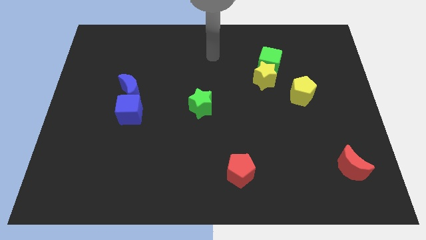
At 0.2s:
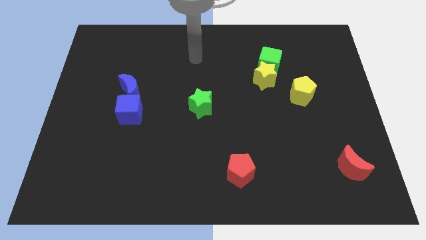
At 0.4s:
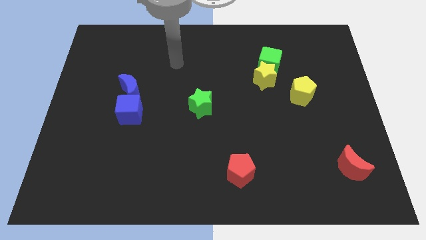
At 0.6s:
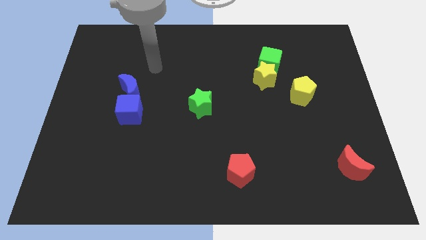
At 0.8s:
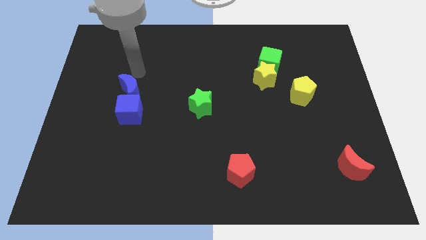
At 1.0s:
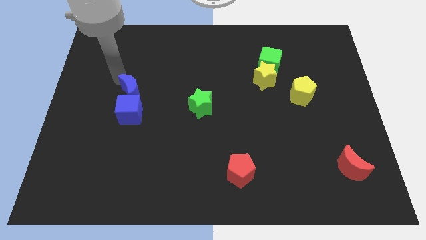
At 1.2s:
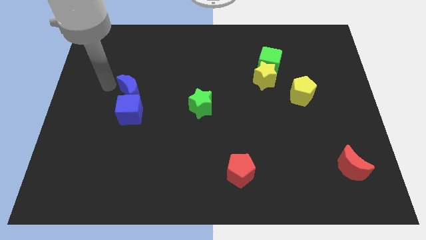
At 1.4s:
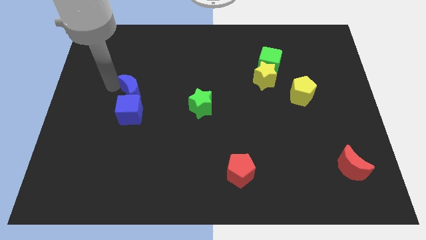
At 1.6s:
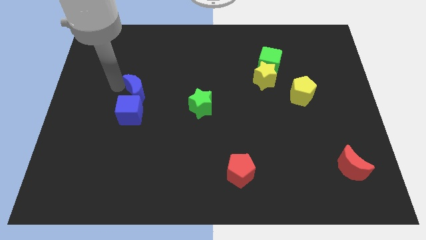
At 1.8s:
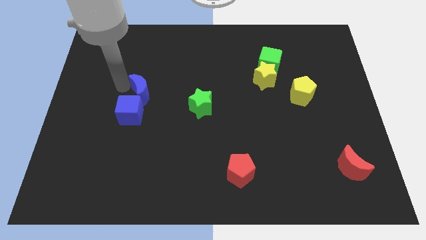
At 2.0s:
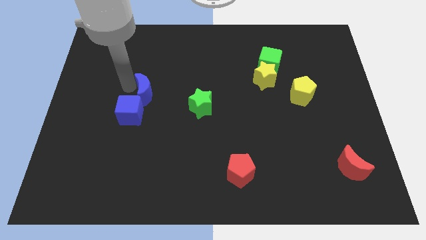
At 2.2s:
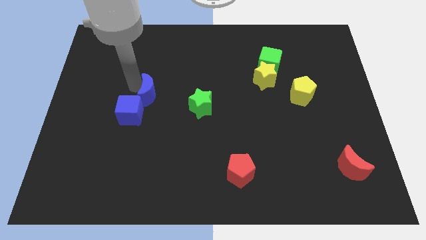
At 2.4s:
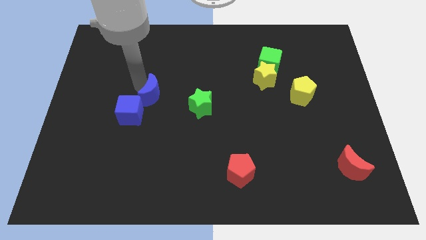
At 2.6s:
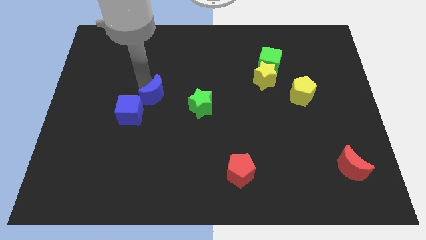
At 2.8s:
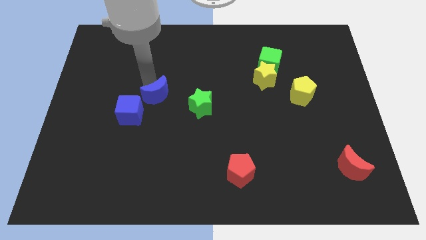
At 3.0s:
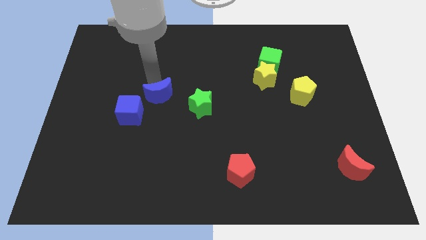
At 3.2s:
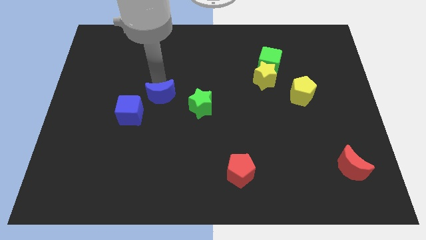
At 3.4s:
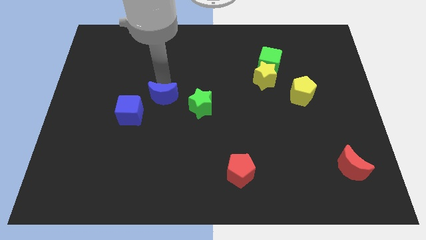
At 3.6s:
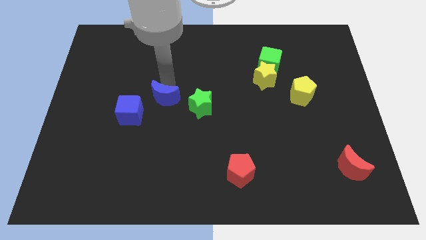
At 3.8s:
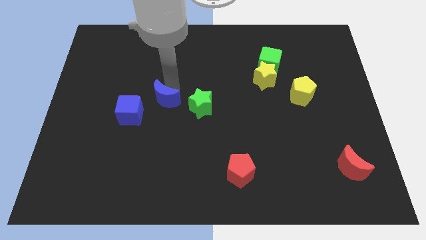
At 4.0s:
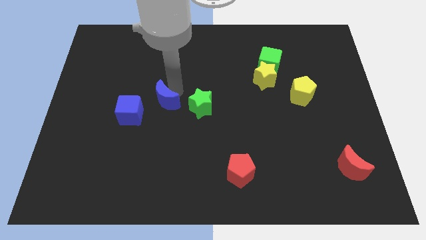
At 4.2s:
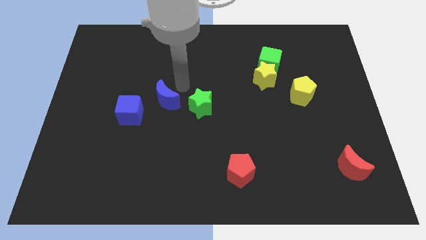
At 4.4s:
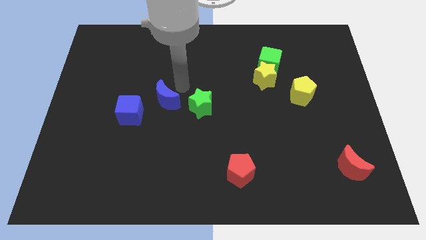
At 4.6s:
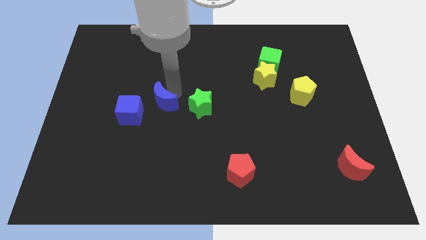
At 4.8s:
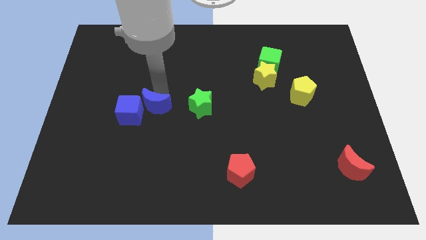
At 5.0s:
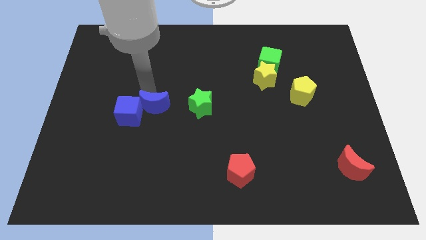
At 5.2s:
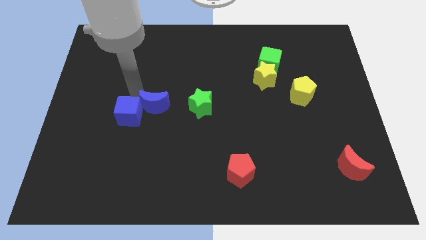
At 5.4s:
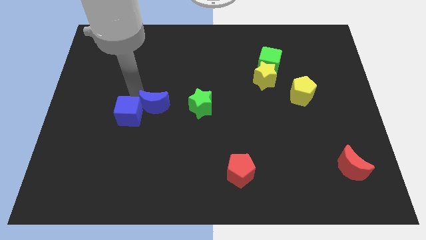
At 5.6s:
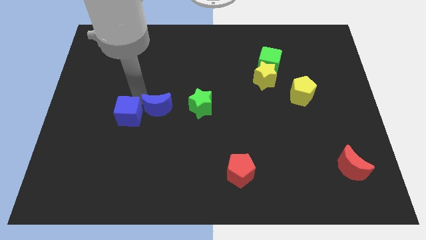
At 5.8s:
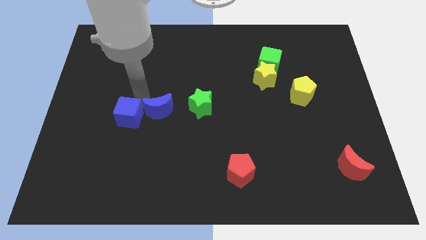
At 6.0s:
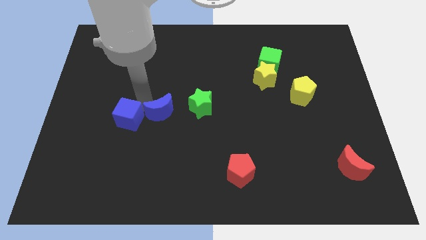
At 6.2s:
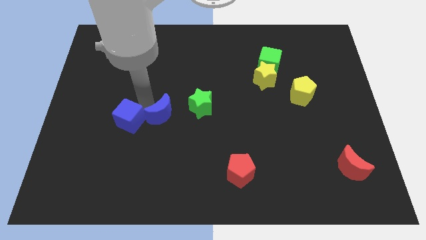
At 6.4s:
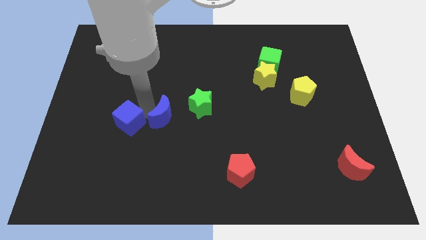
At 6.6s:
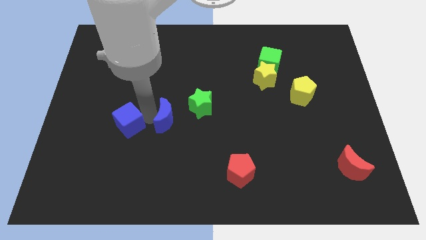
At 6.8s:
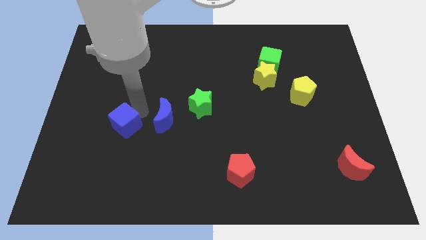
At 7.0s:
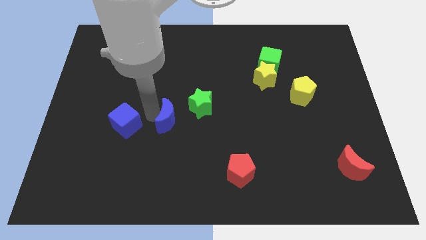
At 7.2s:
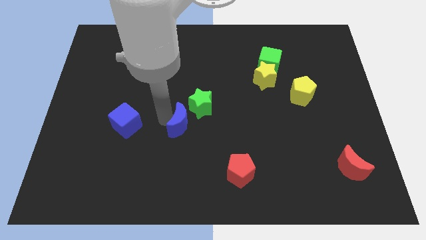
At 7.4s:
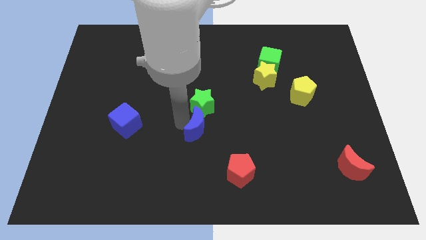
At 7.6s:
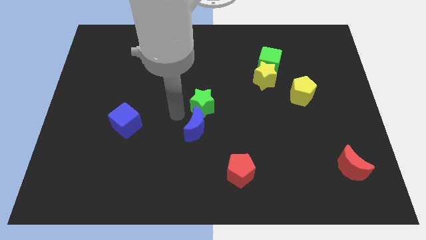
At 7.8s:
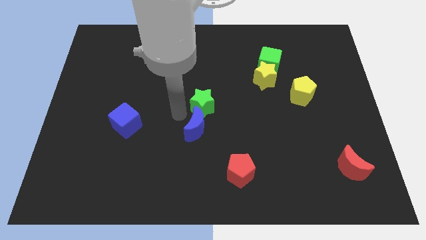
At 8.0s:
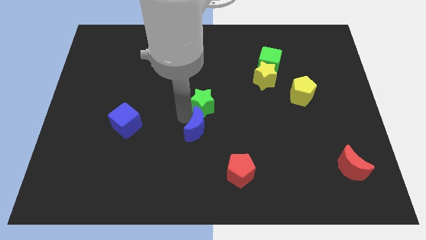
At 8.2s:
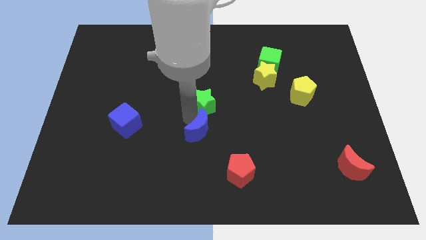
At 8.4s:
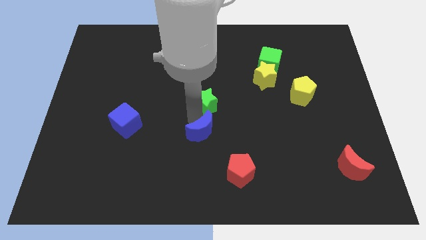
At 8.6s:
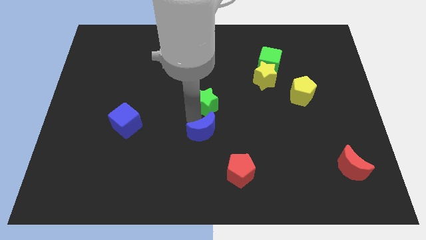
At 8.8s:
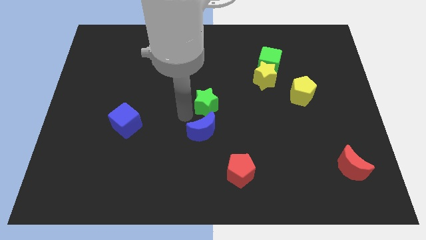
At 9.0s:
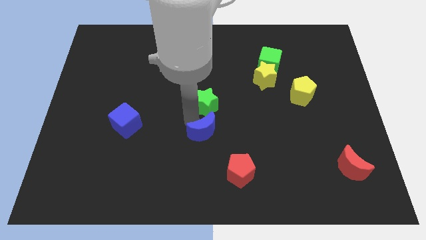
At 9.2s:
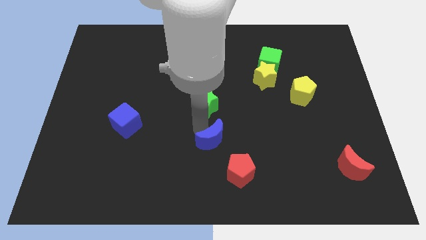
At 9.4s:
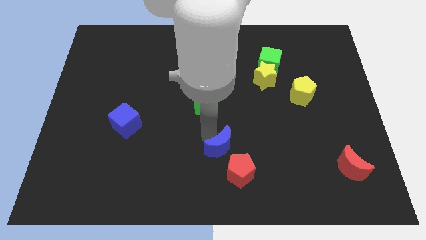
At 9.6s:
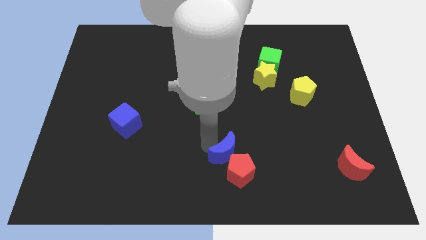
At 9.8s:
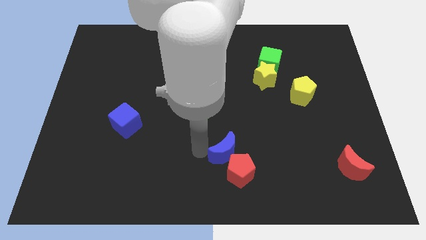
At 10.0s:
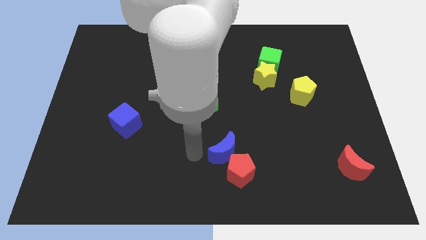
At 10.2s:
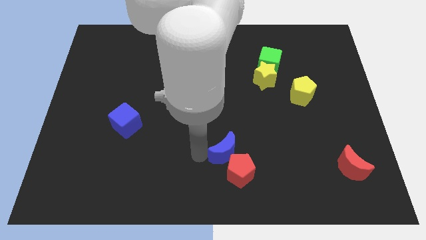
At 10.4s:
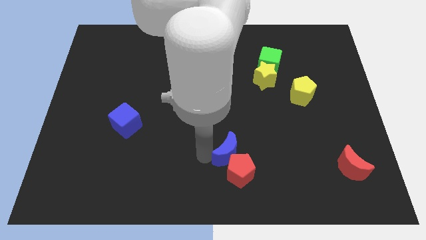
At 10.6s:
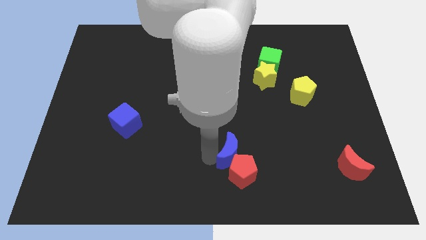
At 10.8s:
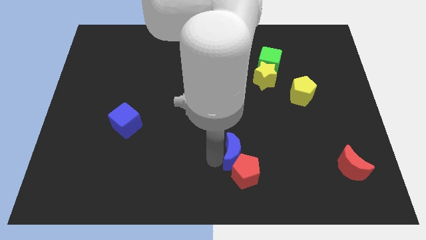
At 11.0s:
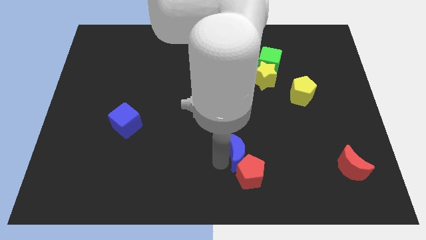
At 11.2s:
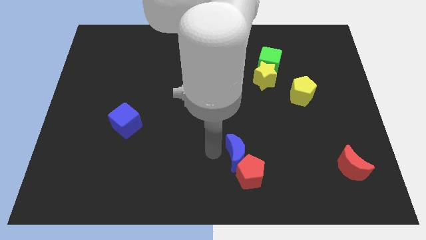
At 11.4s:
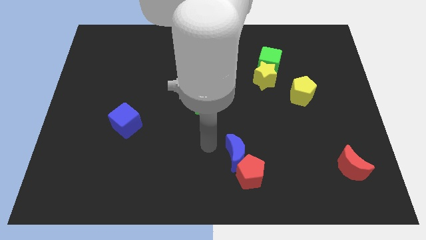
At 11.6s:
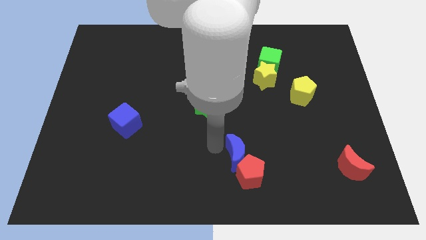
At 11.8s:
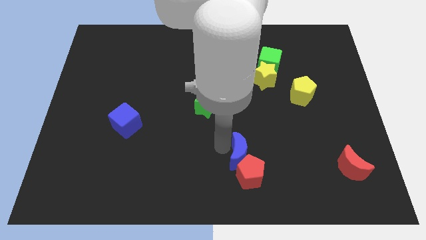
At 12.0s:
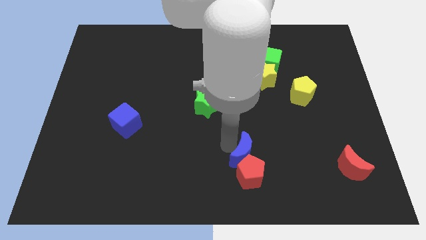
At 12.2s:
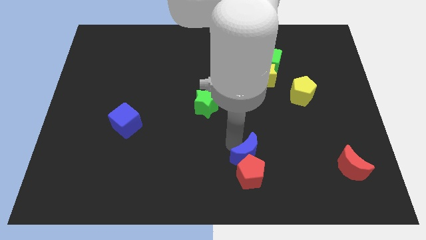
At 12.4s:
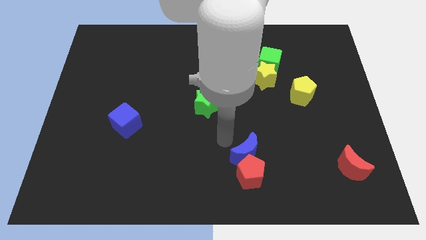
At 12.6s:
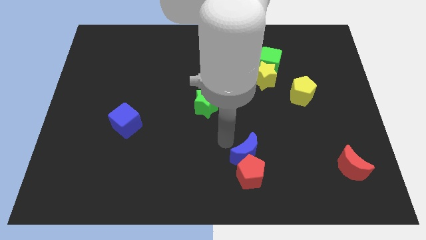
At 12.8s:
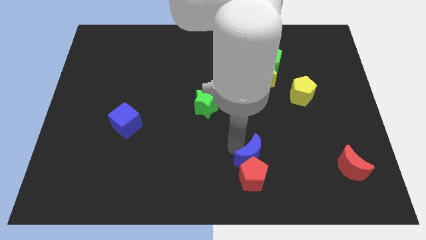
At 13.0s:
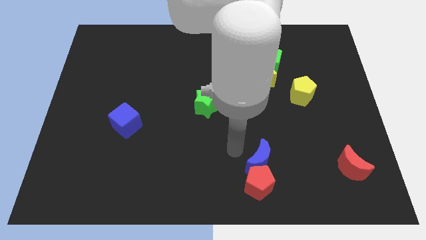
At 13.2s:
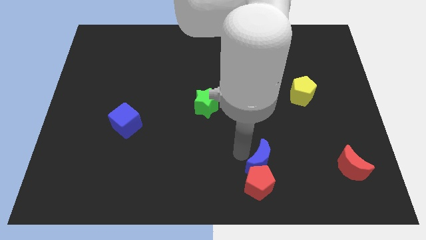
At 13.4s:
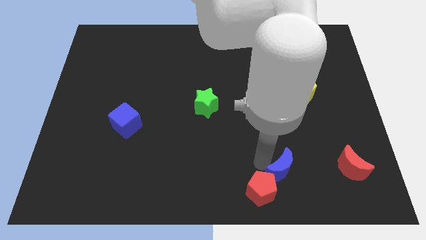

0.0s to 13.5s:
push the blue moon to the right of the red pentagon
